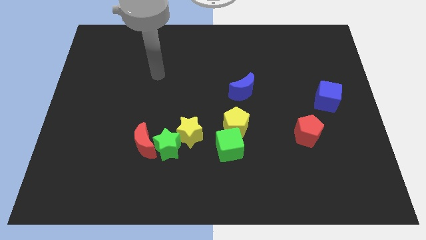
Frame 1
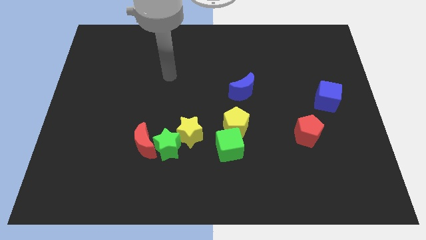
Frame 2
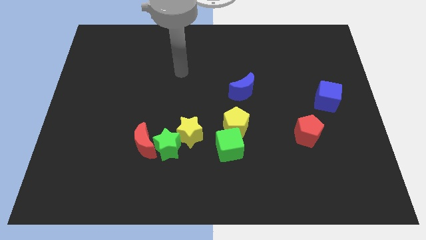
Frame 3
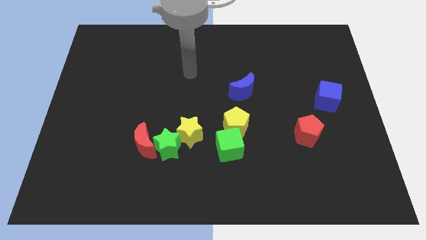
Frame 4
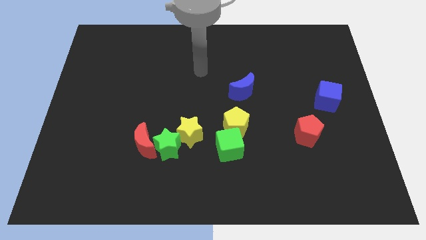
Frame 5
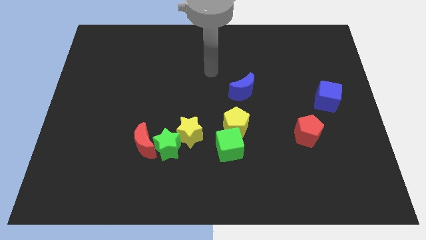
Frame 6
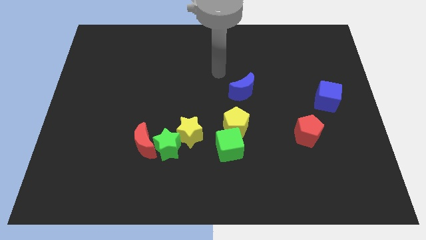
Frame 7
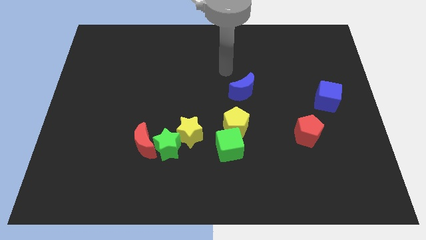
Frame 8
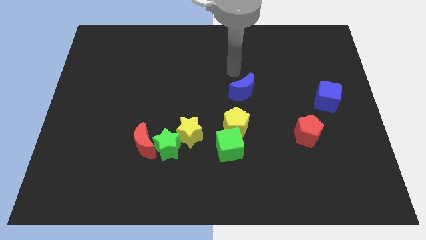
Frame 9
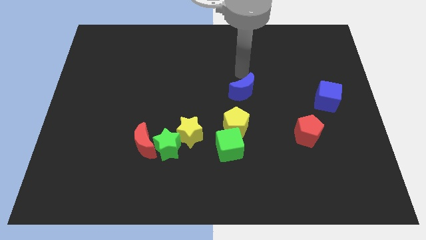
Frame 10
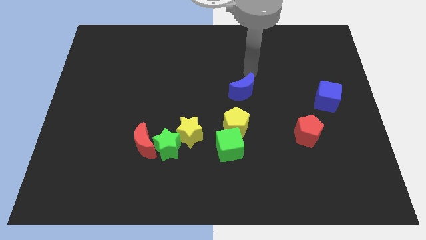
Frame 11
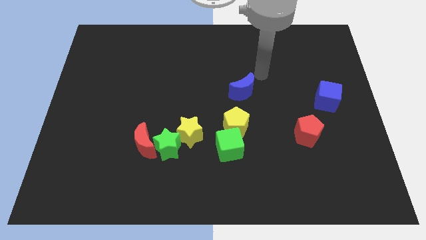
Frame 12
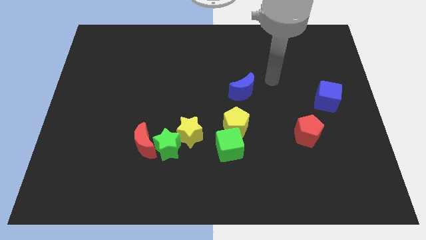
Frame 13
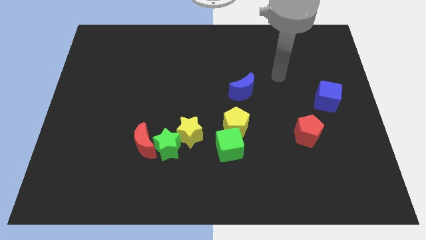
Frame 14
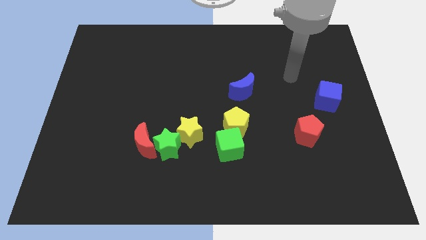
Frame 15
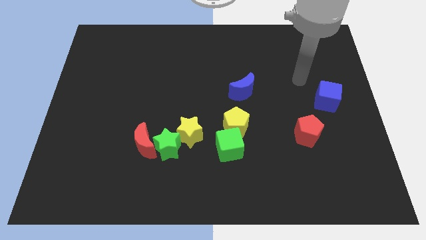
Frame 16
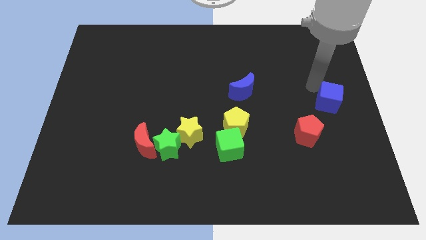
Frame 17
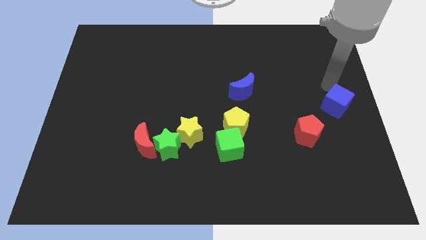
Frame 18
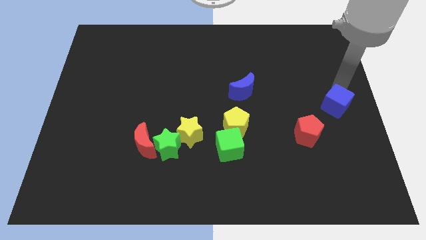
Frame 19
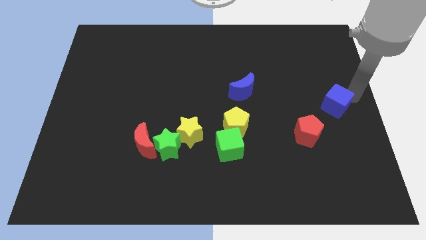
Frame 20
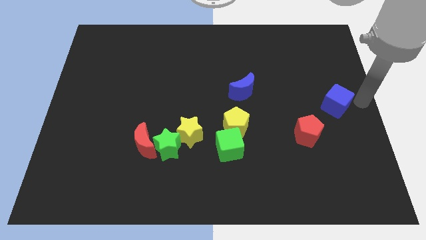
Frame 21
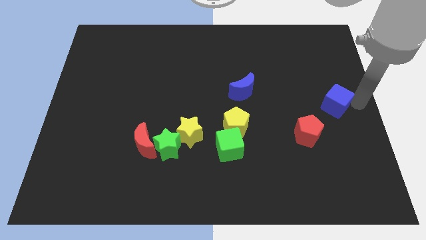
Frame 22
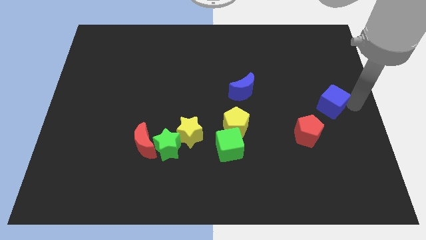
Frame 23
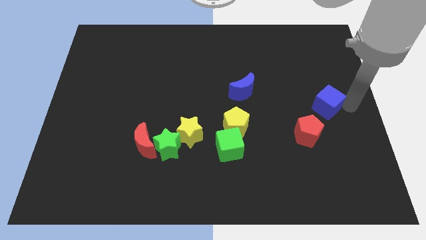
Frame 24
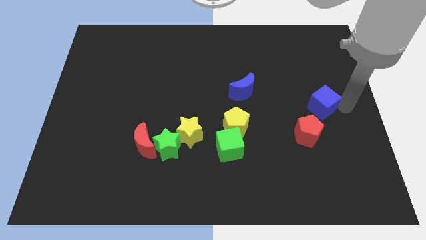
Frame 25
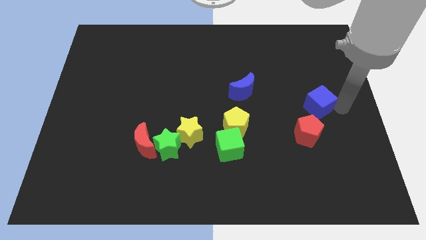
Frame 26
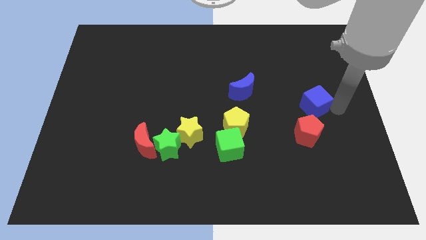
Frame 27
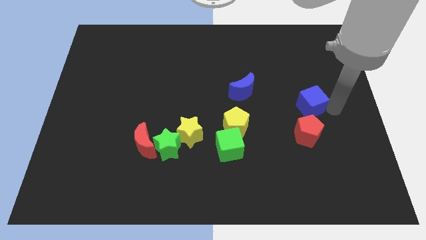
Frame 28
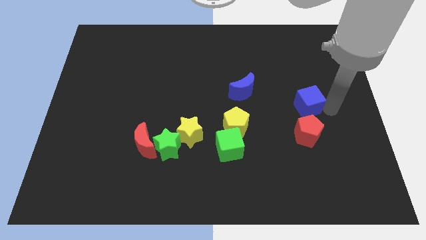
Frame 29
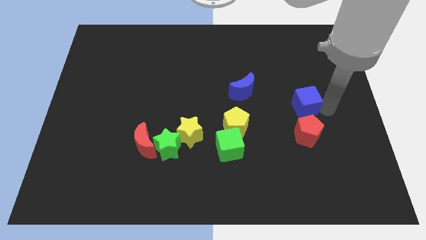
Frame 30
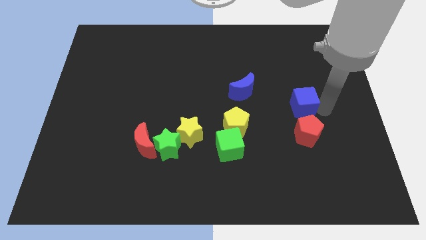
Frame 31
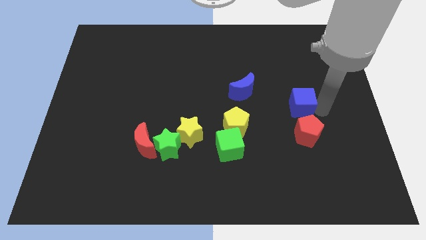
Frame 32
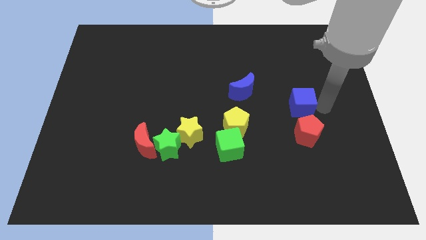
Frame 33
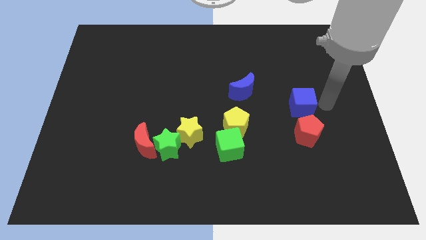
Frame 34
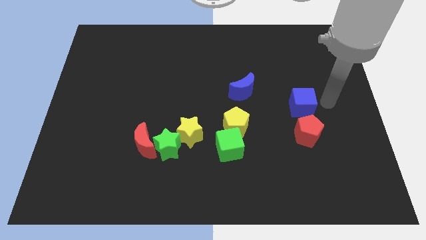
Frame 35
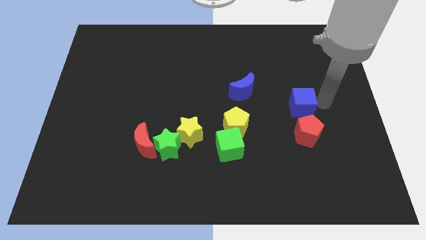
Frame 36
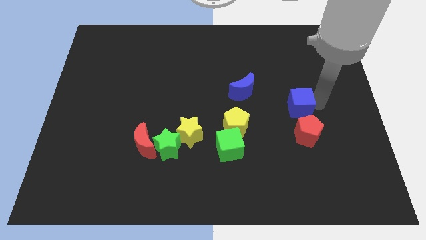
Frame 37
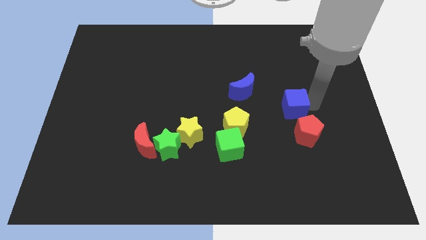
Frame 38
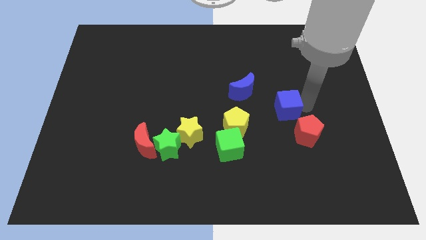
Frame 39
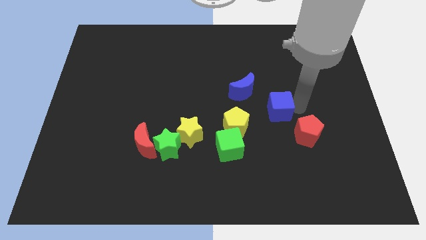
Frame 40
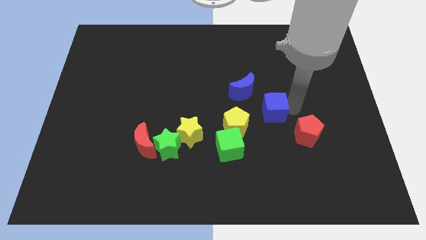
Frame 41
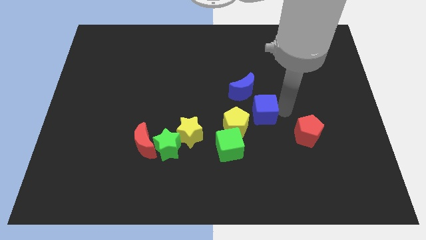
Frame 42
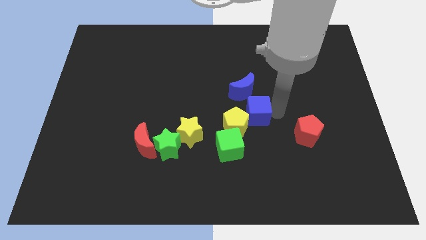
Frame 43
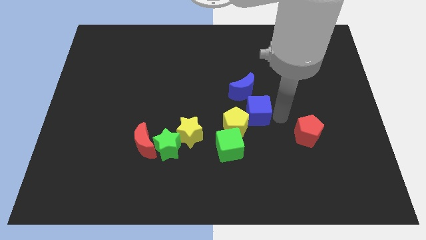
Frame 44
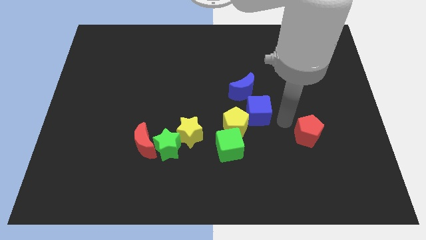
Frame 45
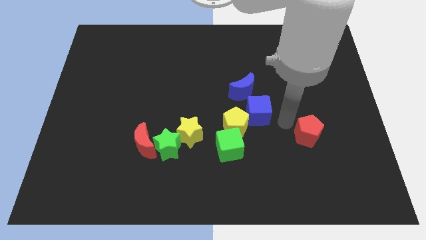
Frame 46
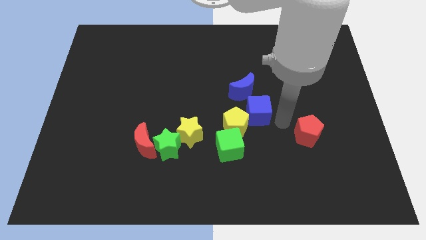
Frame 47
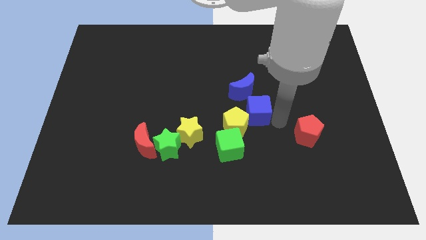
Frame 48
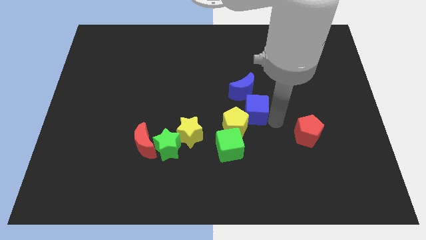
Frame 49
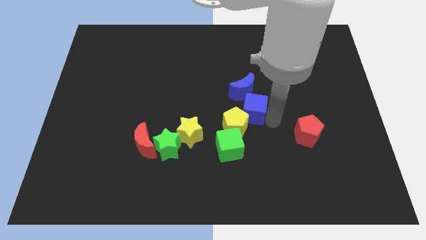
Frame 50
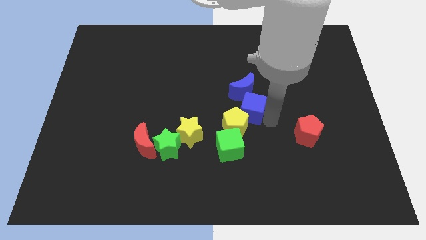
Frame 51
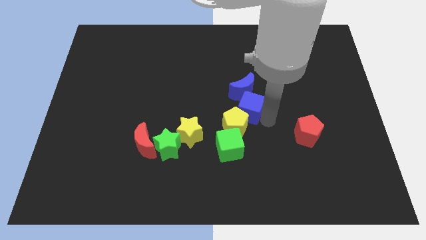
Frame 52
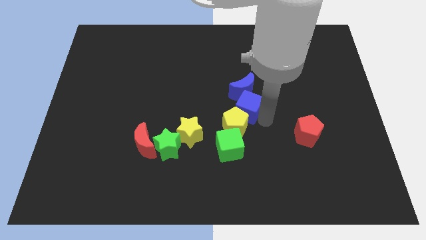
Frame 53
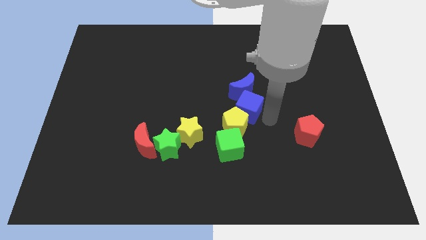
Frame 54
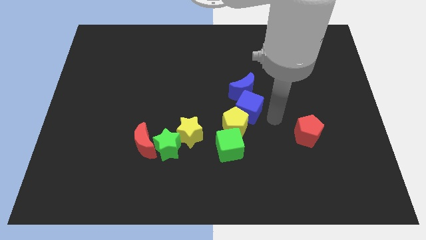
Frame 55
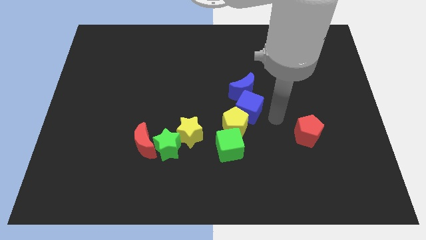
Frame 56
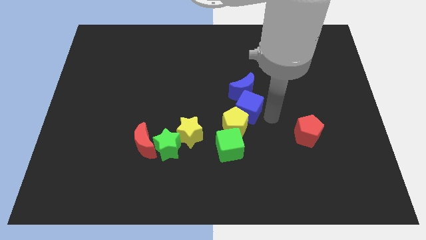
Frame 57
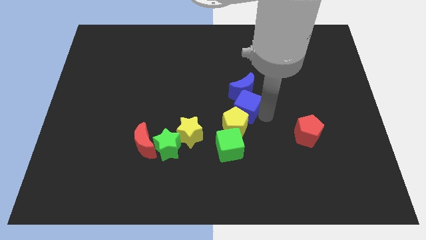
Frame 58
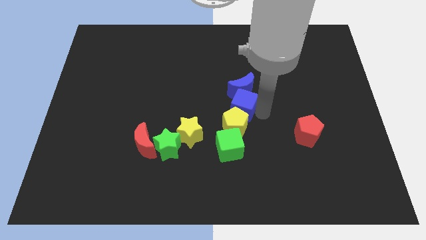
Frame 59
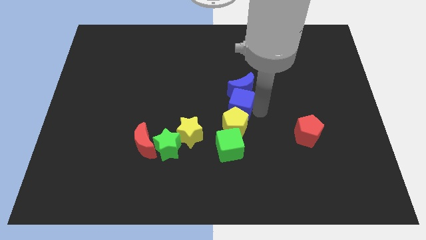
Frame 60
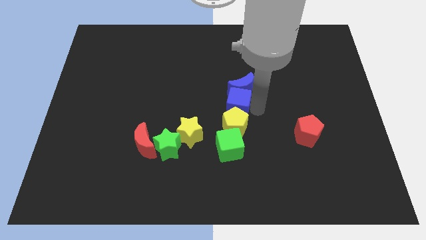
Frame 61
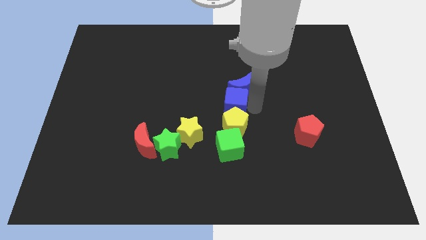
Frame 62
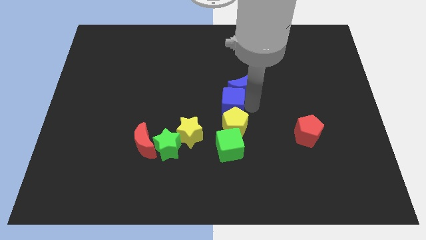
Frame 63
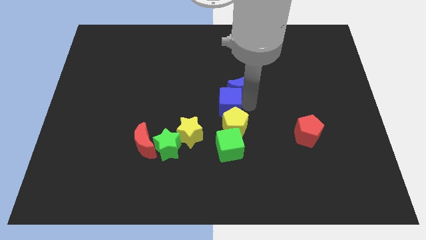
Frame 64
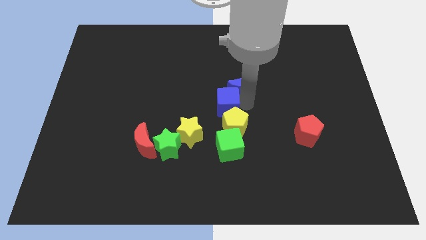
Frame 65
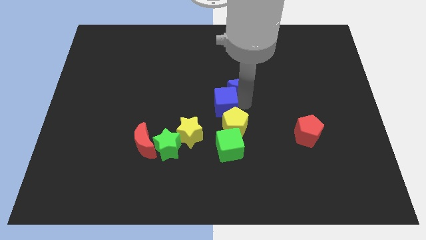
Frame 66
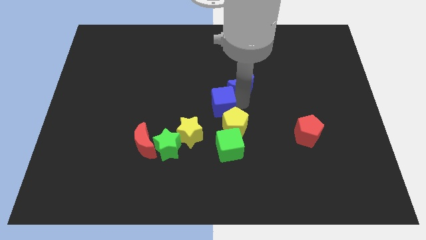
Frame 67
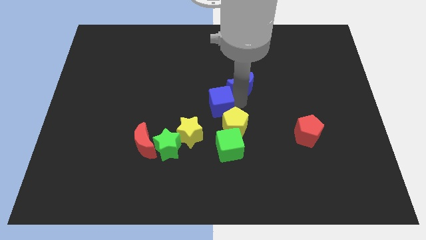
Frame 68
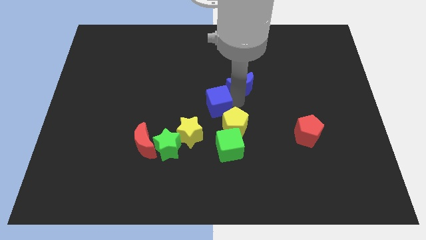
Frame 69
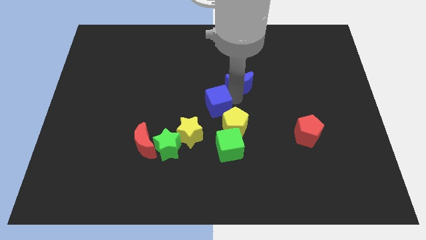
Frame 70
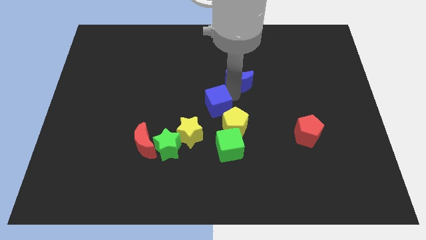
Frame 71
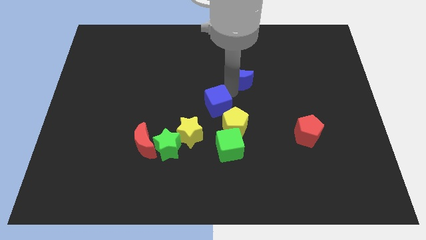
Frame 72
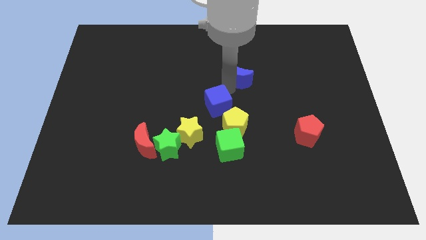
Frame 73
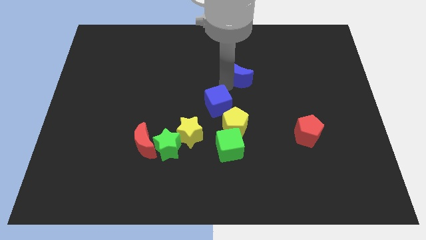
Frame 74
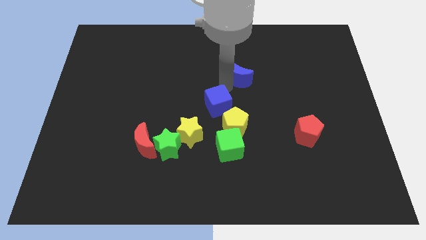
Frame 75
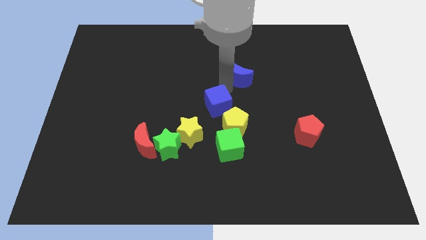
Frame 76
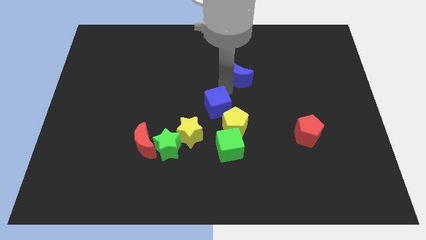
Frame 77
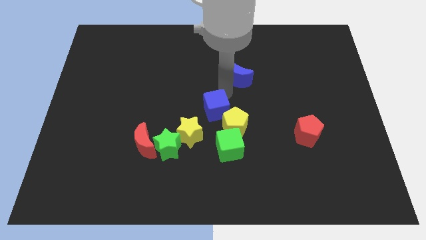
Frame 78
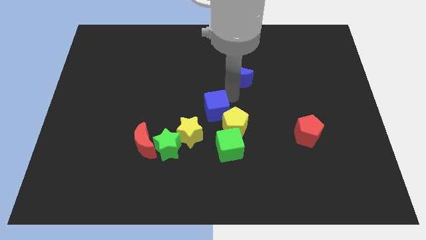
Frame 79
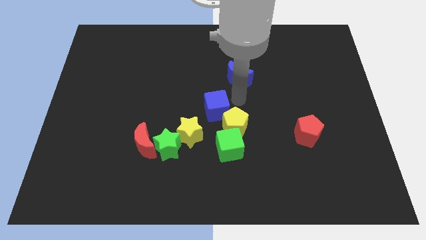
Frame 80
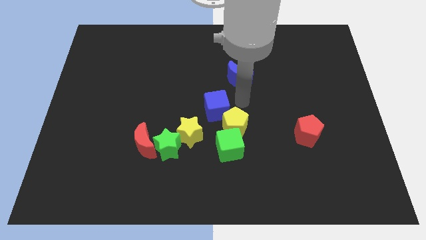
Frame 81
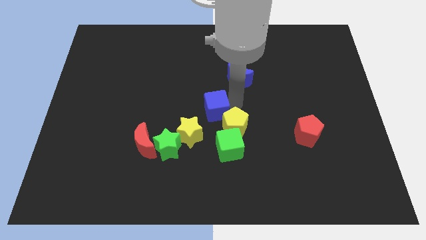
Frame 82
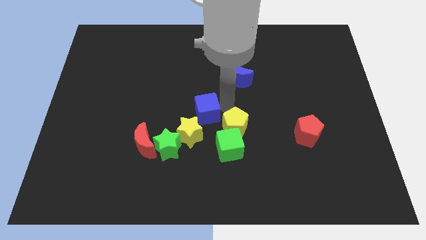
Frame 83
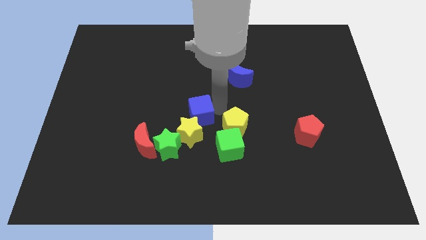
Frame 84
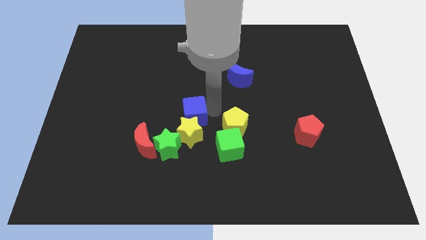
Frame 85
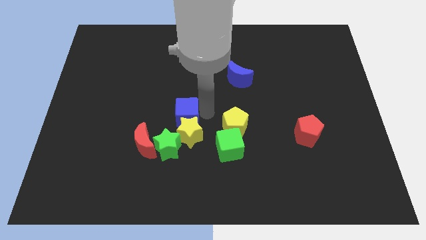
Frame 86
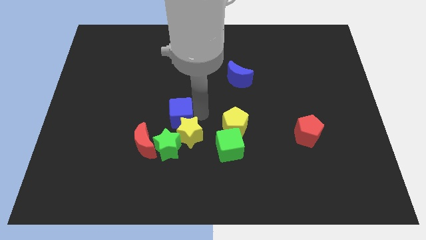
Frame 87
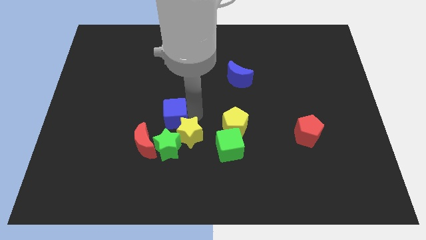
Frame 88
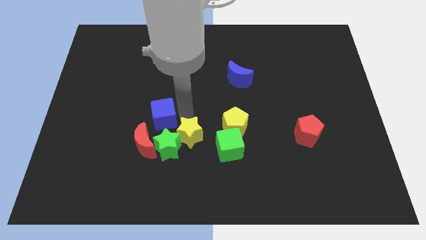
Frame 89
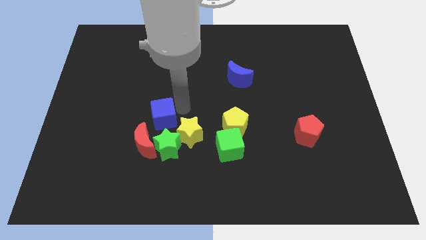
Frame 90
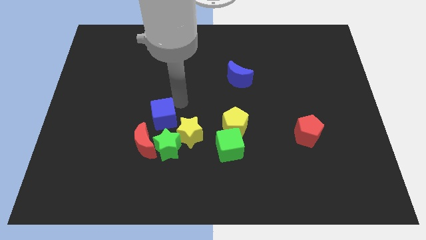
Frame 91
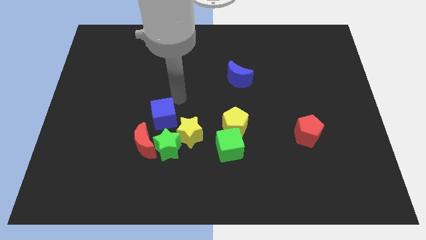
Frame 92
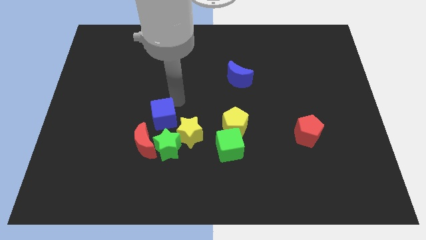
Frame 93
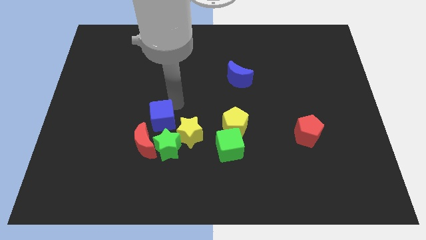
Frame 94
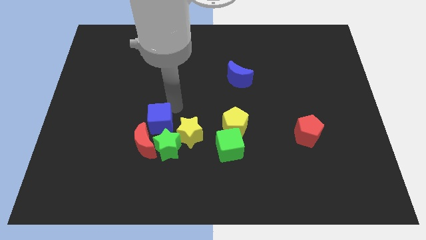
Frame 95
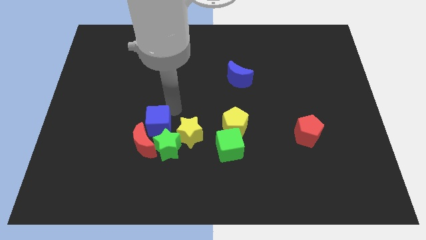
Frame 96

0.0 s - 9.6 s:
slide the blue cube next to the red moon
